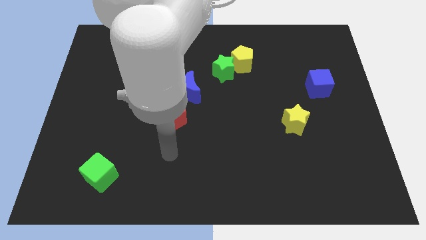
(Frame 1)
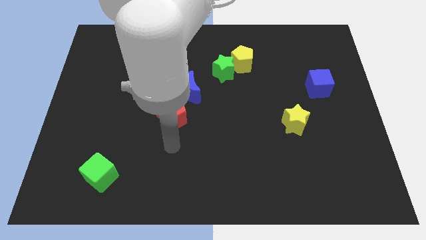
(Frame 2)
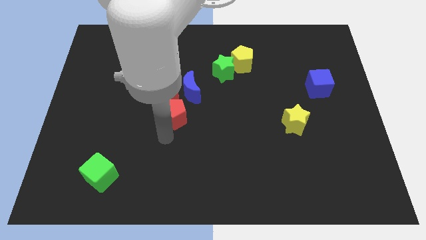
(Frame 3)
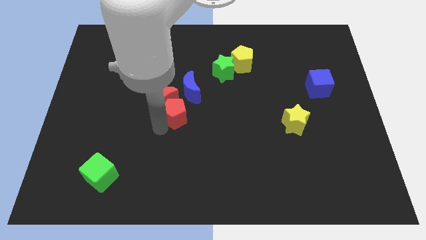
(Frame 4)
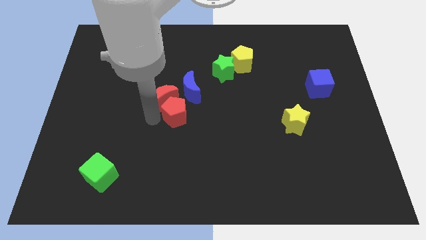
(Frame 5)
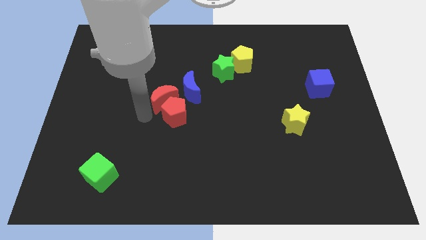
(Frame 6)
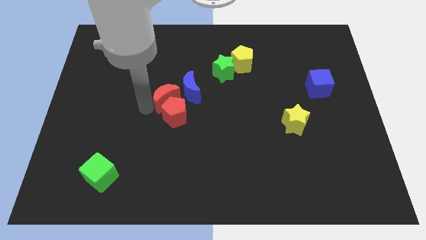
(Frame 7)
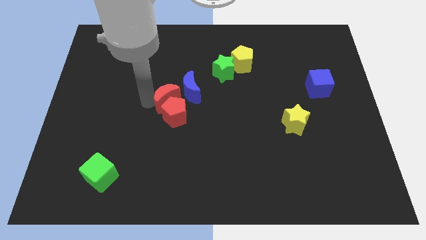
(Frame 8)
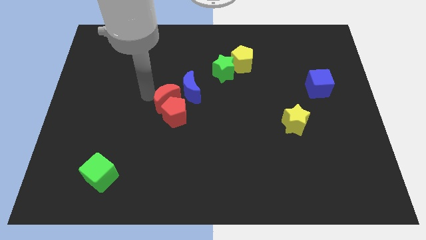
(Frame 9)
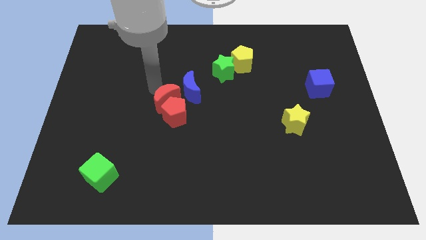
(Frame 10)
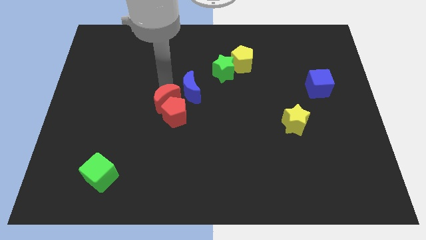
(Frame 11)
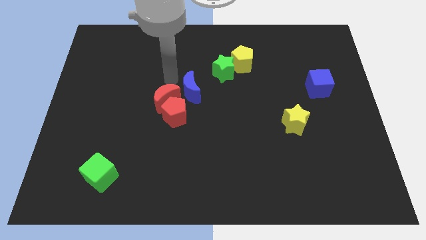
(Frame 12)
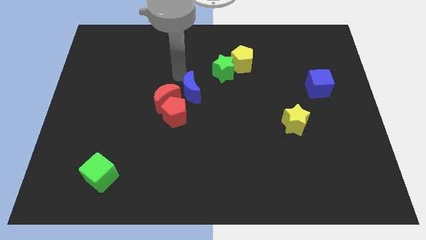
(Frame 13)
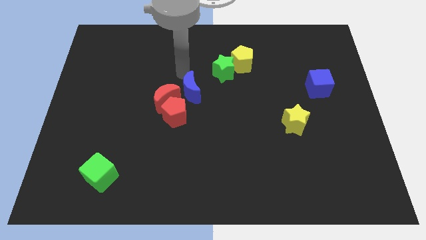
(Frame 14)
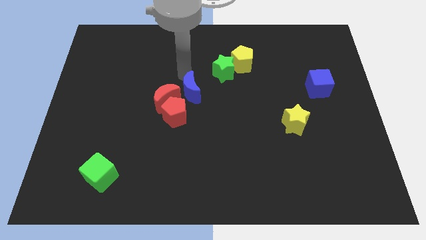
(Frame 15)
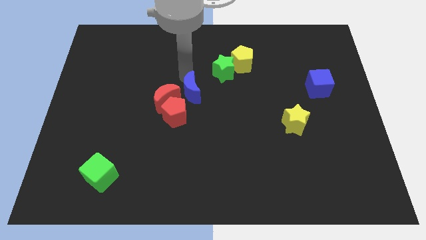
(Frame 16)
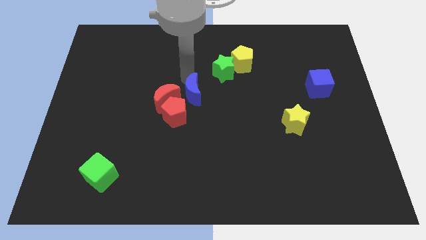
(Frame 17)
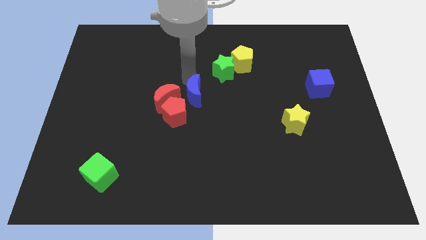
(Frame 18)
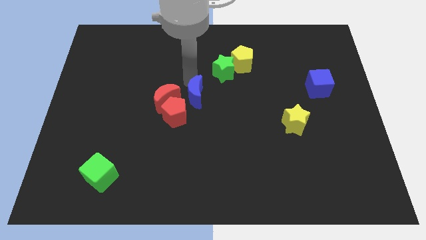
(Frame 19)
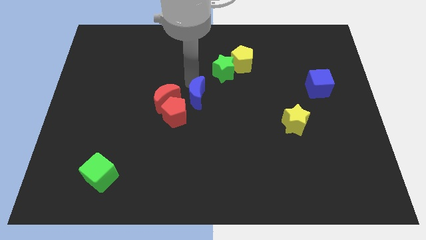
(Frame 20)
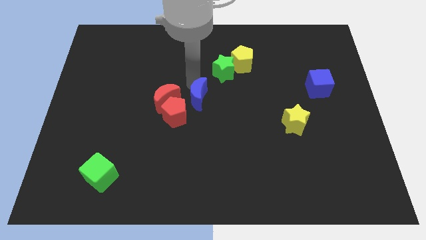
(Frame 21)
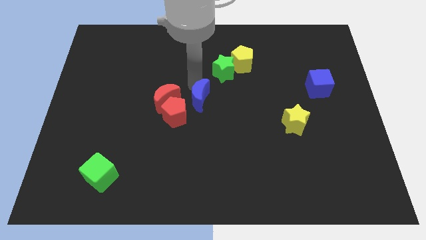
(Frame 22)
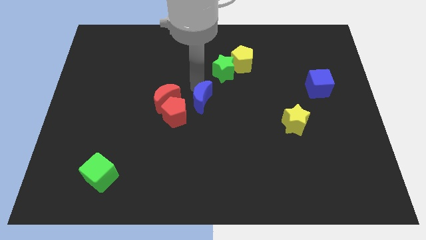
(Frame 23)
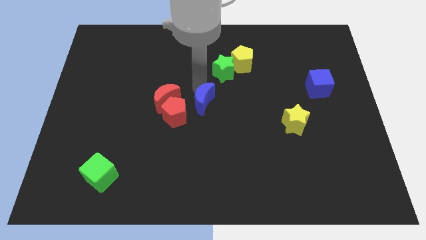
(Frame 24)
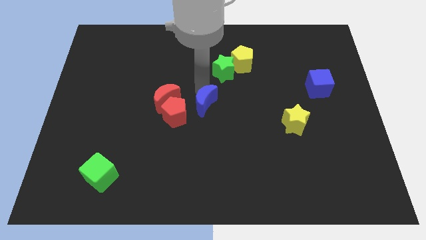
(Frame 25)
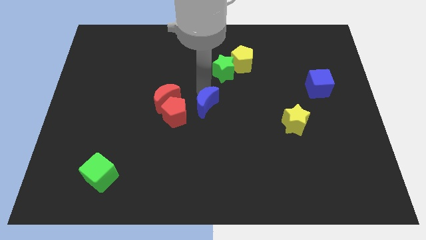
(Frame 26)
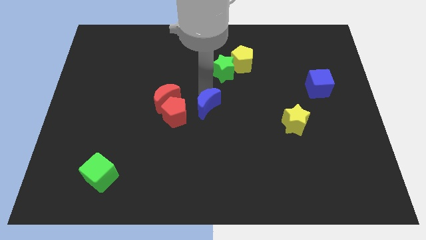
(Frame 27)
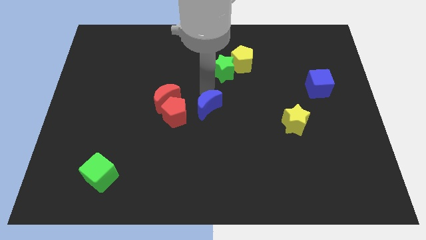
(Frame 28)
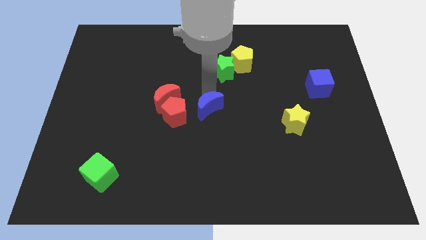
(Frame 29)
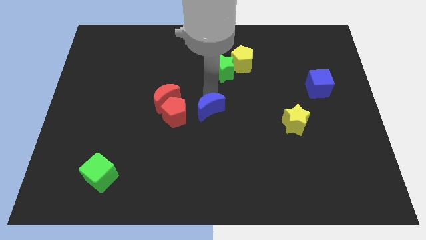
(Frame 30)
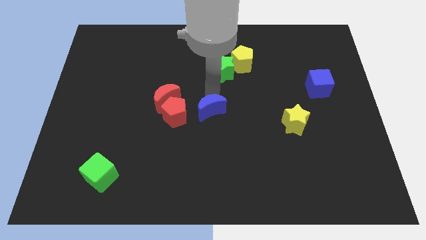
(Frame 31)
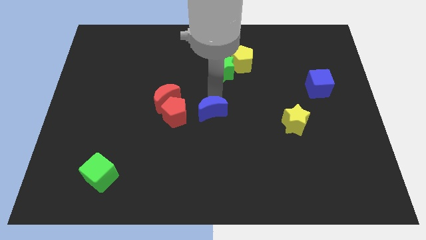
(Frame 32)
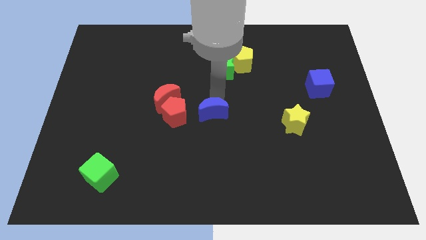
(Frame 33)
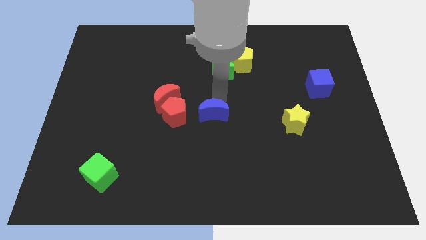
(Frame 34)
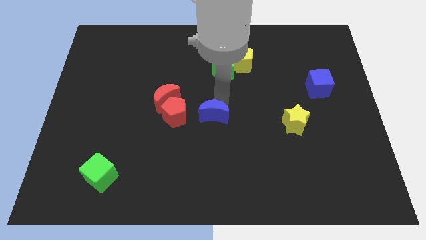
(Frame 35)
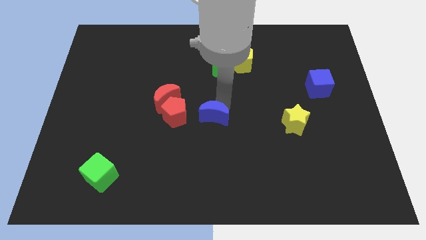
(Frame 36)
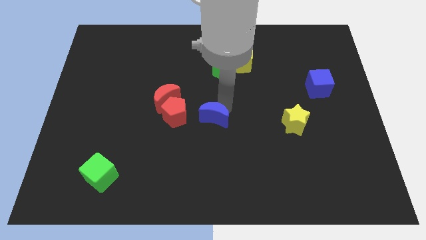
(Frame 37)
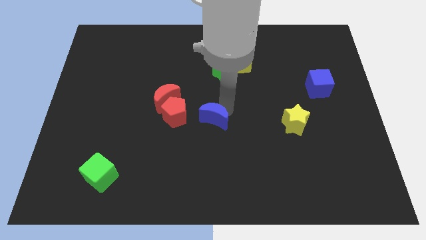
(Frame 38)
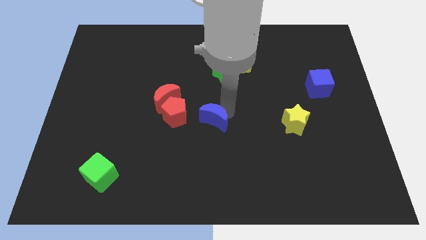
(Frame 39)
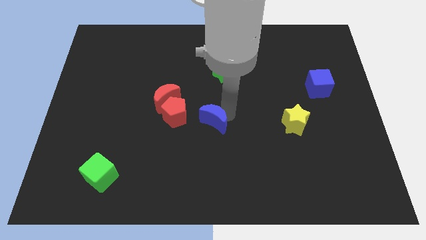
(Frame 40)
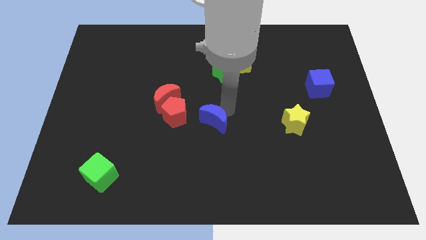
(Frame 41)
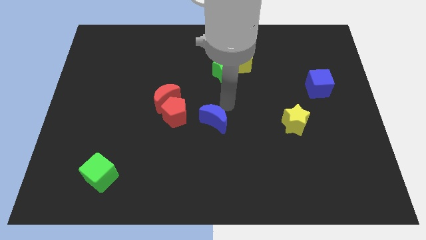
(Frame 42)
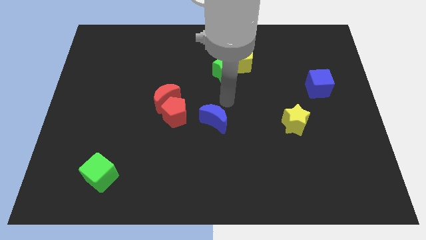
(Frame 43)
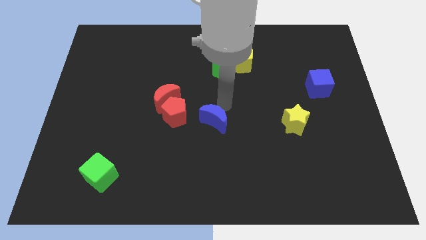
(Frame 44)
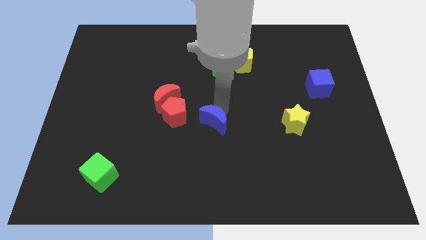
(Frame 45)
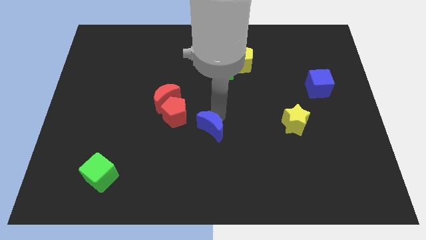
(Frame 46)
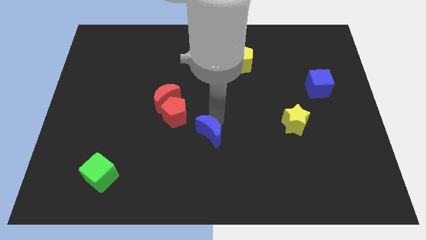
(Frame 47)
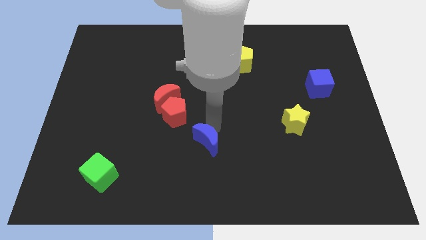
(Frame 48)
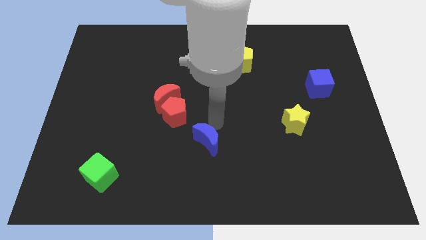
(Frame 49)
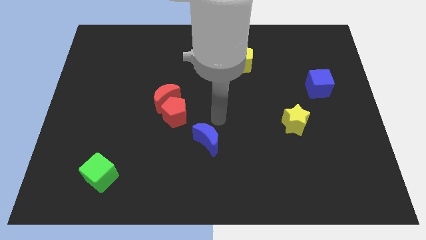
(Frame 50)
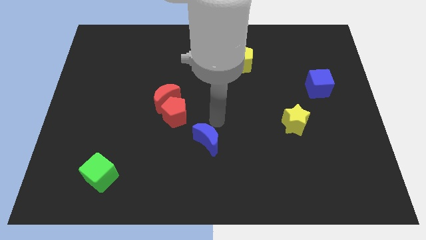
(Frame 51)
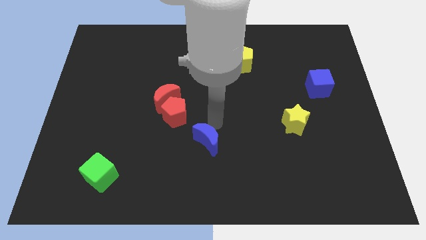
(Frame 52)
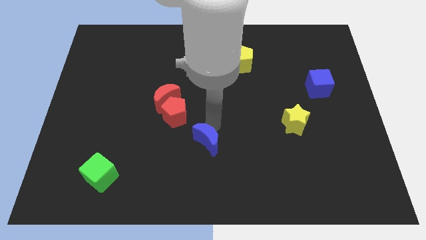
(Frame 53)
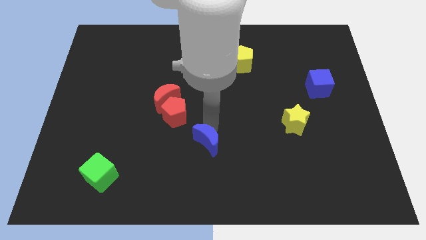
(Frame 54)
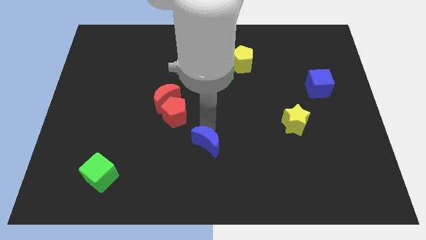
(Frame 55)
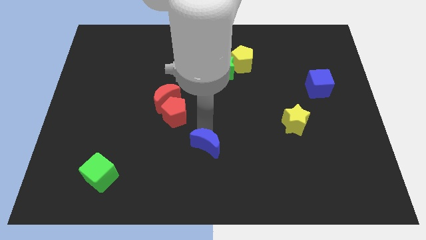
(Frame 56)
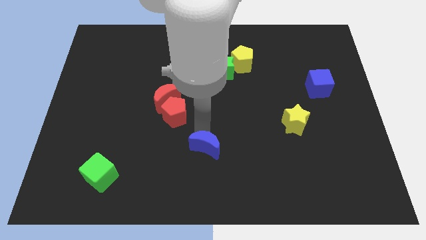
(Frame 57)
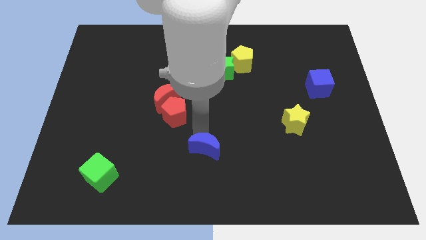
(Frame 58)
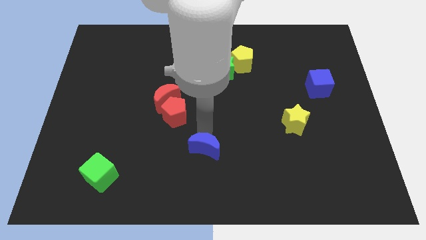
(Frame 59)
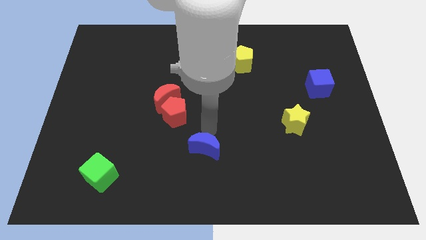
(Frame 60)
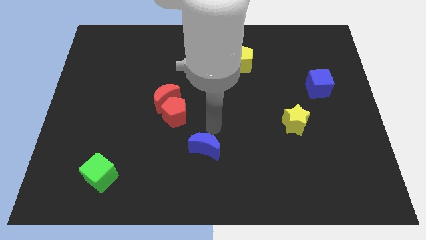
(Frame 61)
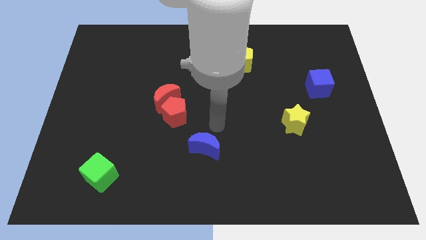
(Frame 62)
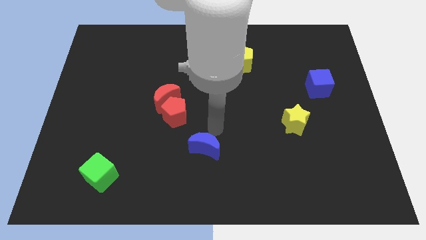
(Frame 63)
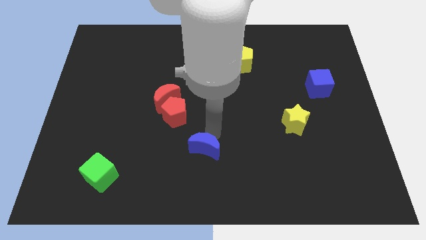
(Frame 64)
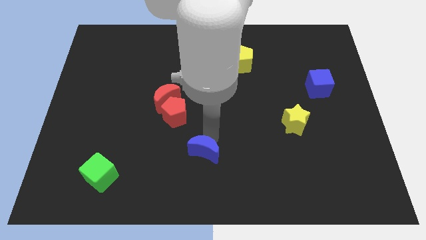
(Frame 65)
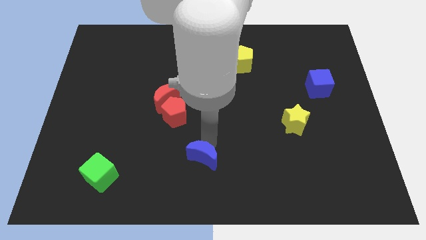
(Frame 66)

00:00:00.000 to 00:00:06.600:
move the blue moon to the bottom
